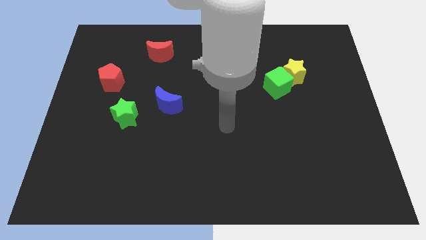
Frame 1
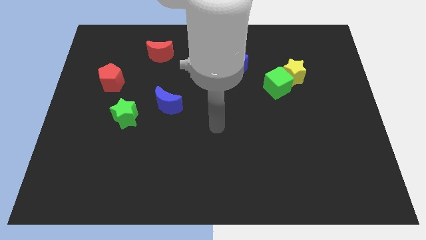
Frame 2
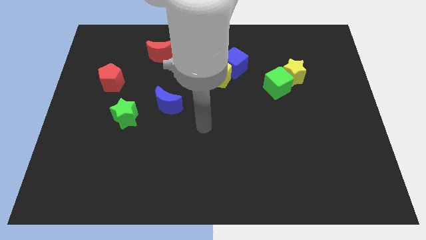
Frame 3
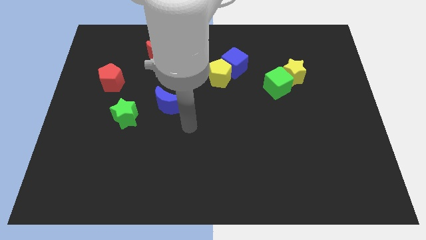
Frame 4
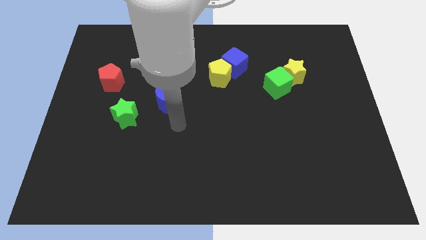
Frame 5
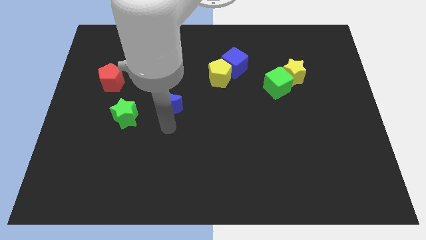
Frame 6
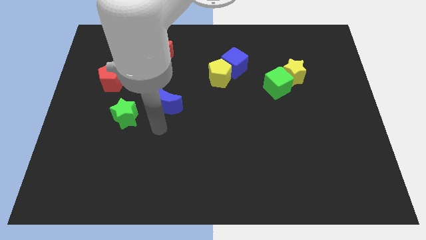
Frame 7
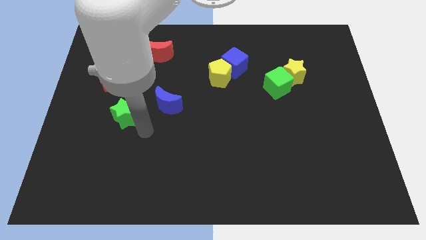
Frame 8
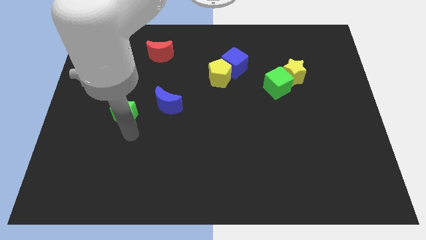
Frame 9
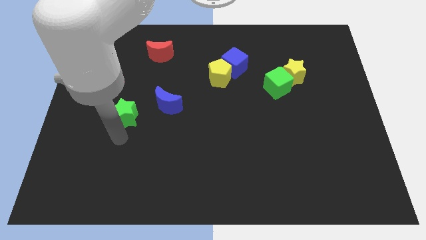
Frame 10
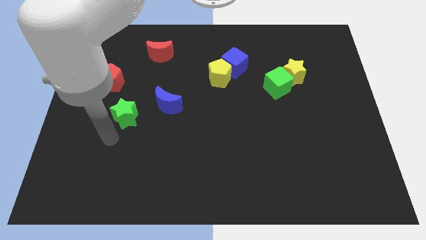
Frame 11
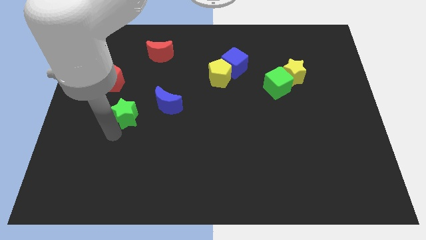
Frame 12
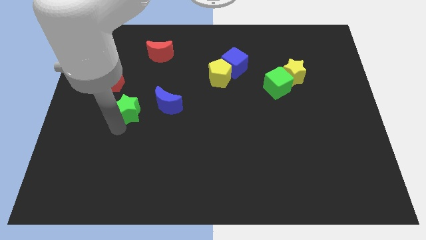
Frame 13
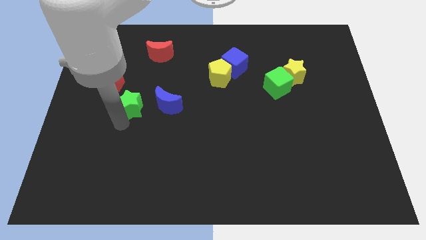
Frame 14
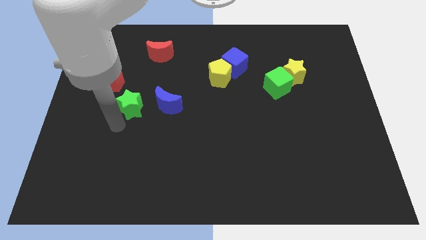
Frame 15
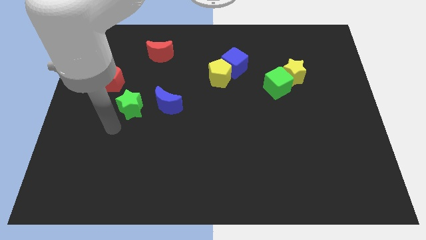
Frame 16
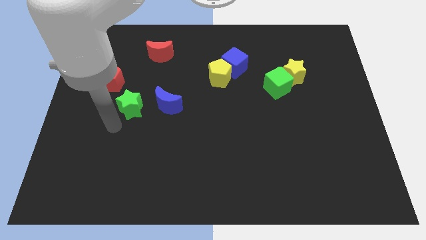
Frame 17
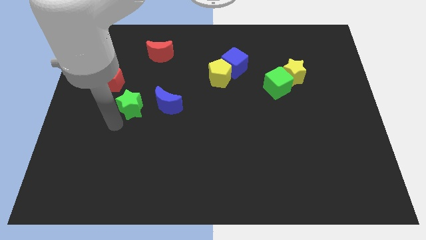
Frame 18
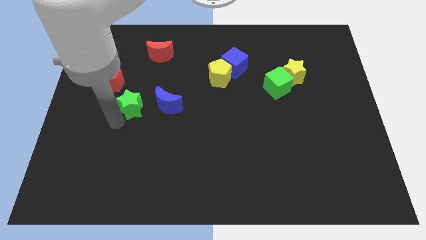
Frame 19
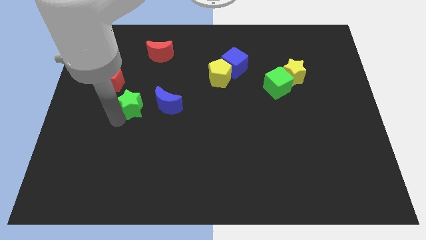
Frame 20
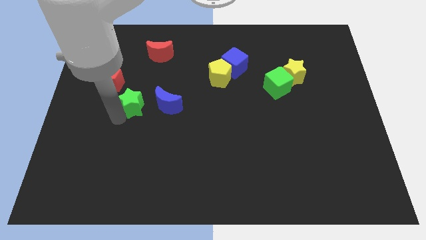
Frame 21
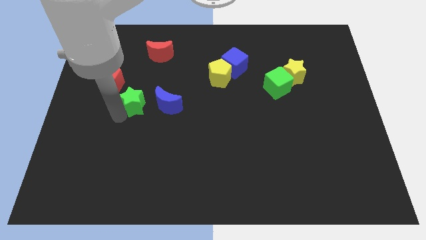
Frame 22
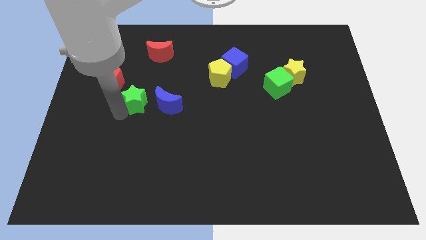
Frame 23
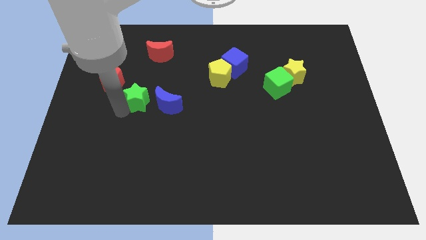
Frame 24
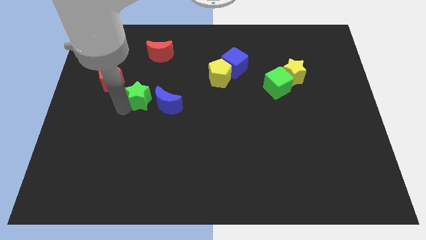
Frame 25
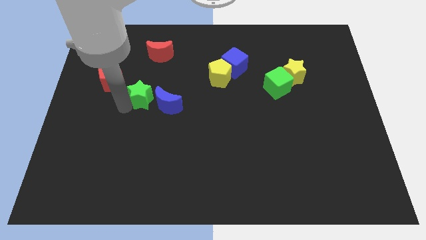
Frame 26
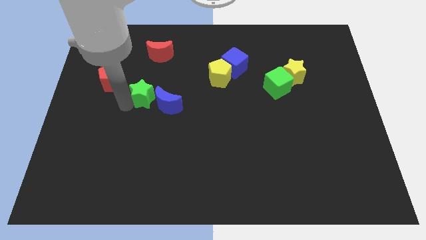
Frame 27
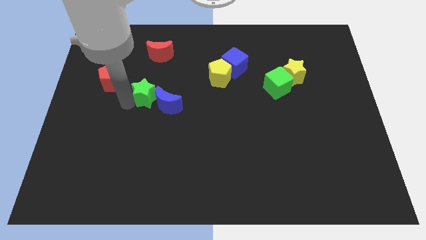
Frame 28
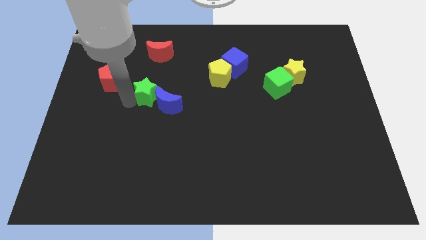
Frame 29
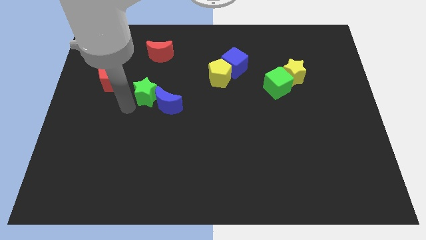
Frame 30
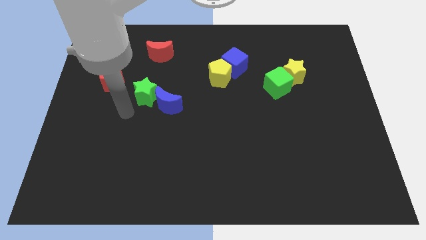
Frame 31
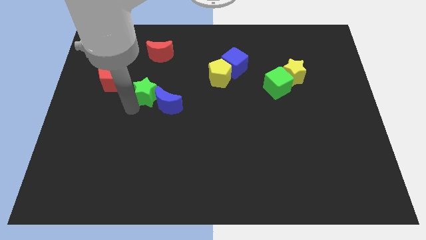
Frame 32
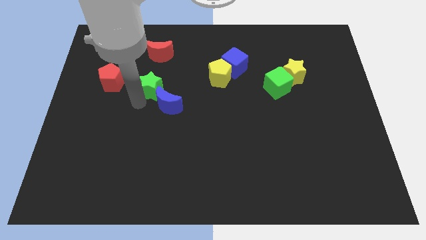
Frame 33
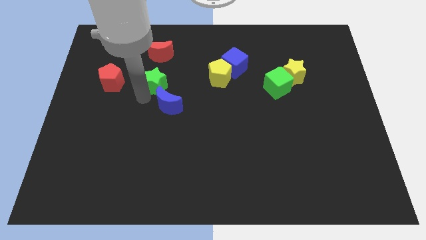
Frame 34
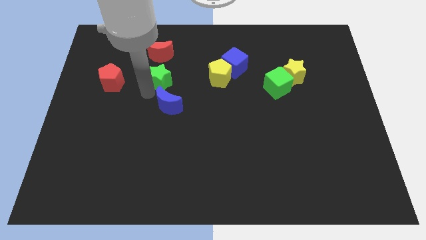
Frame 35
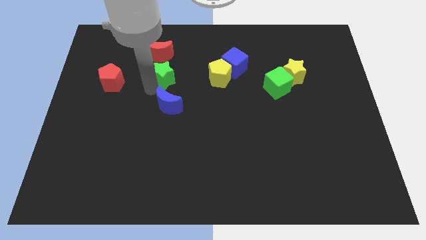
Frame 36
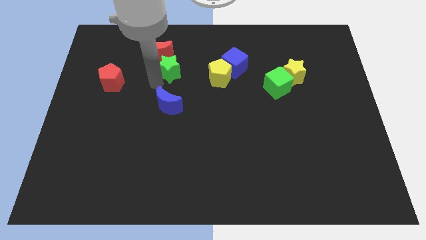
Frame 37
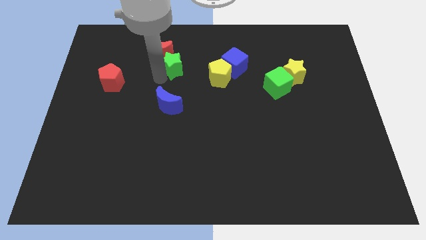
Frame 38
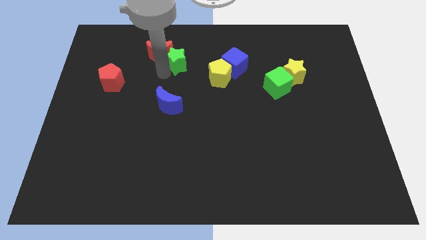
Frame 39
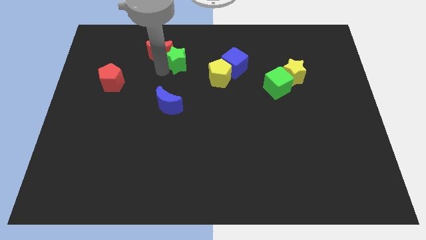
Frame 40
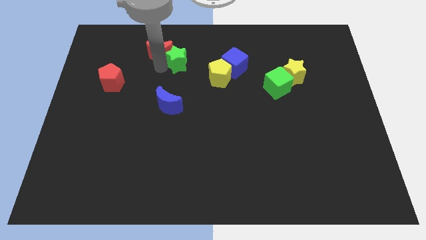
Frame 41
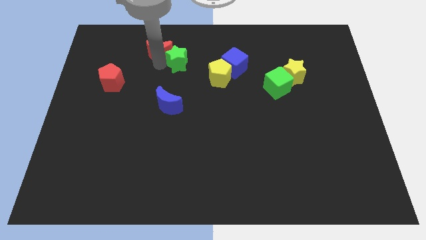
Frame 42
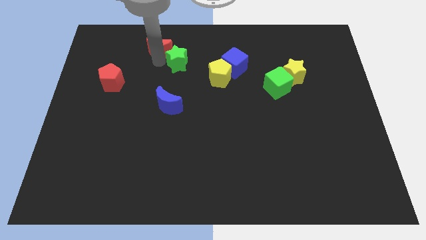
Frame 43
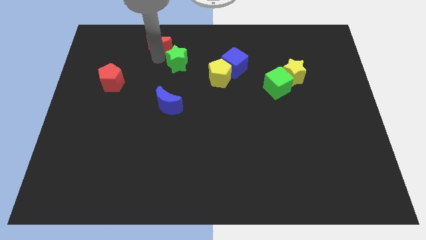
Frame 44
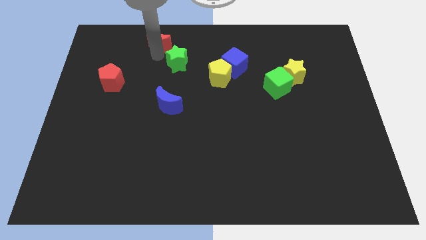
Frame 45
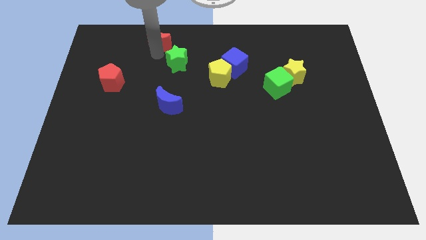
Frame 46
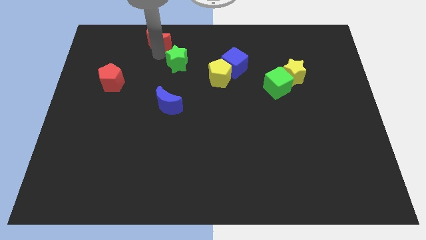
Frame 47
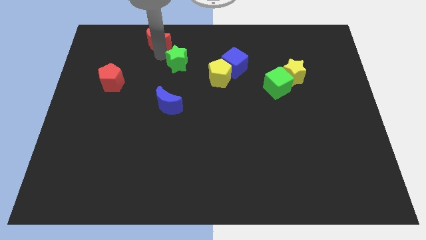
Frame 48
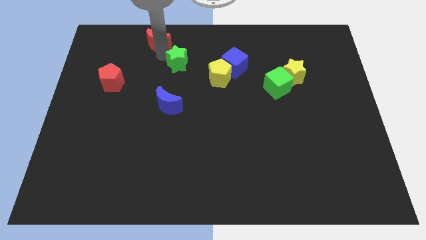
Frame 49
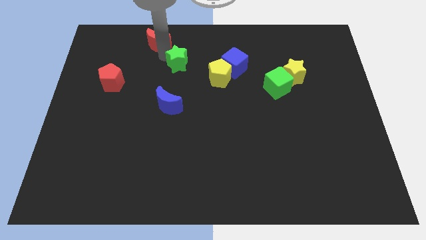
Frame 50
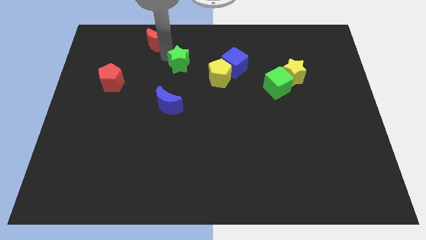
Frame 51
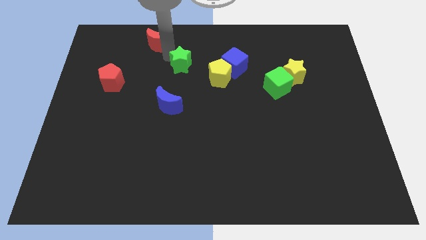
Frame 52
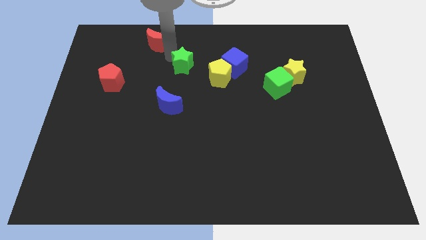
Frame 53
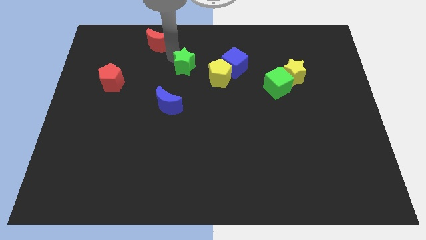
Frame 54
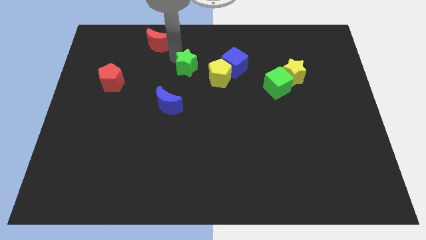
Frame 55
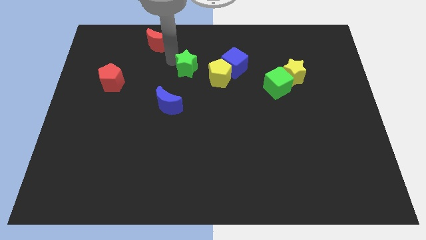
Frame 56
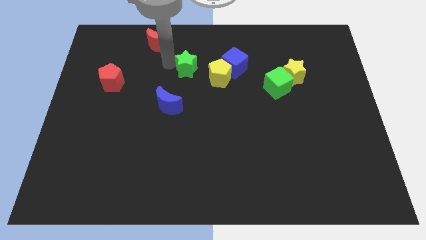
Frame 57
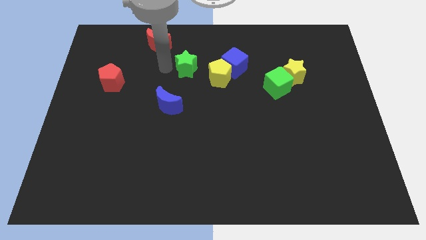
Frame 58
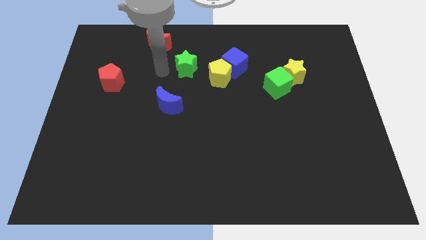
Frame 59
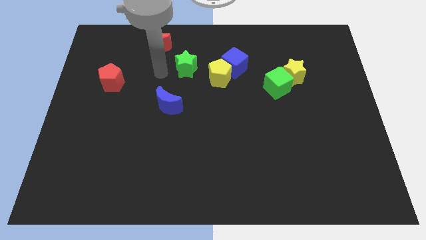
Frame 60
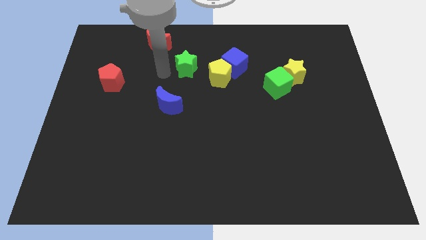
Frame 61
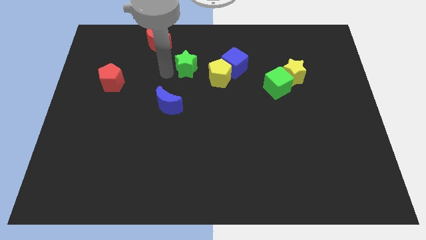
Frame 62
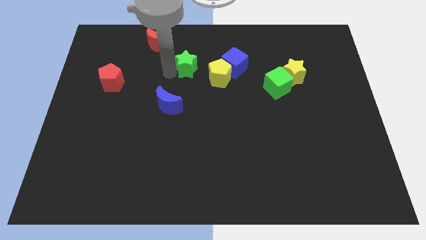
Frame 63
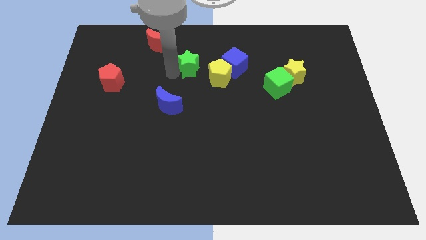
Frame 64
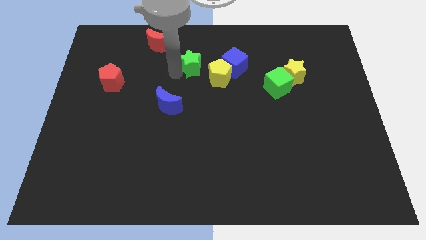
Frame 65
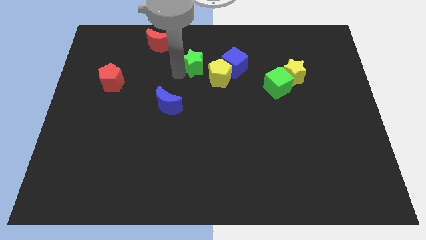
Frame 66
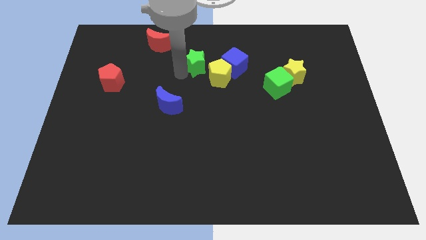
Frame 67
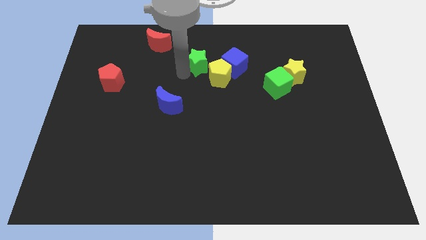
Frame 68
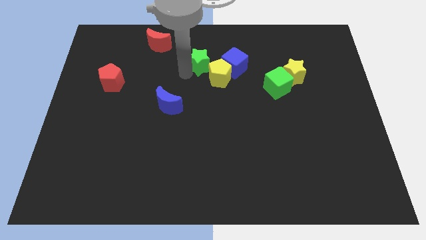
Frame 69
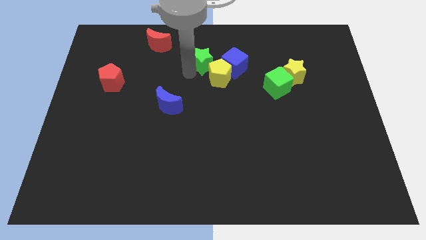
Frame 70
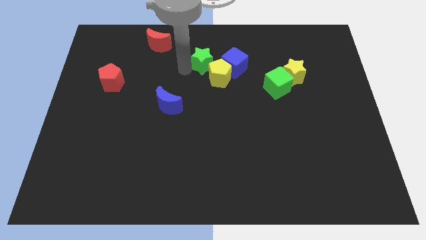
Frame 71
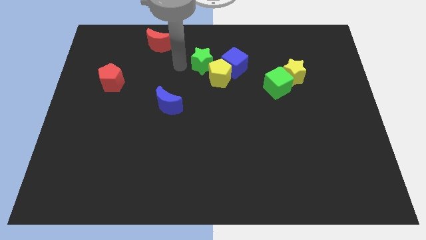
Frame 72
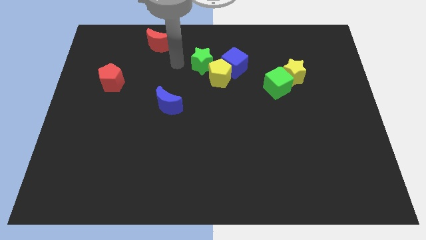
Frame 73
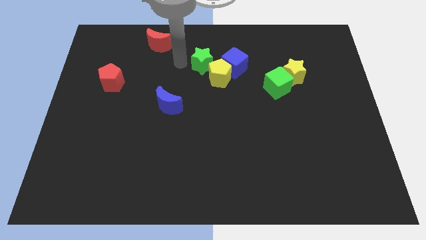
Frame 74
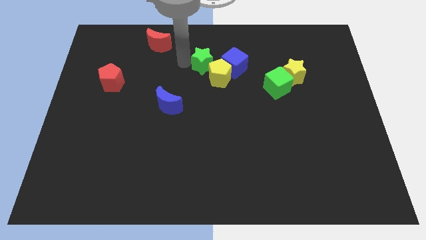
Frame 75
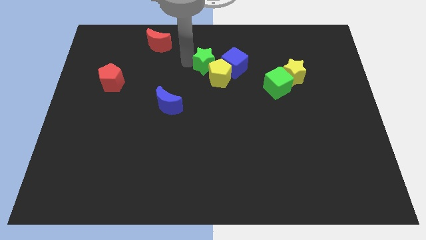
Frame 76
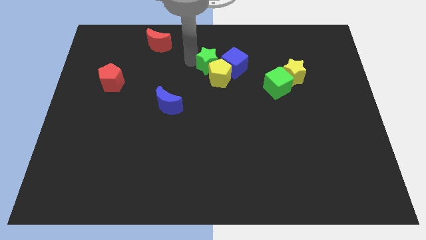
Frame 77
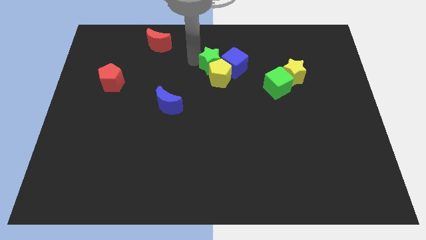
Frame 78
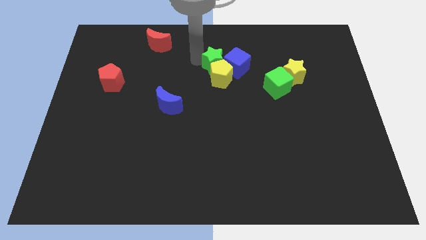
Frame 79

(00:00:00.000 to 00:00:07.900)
move the green star towards the blue cube

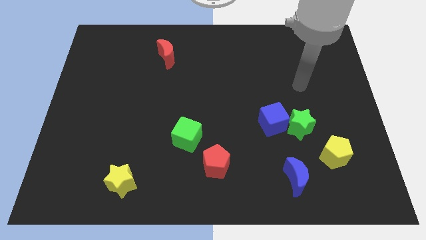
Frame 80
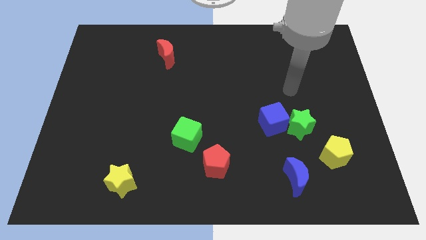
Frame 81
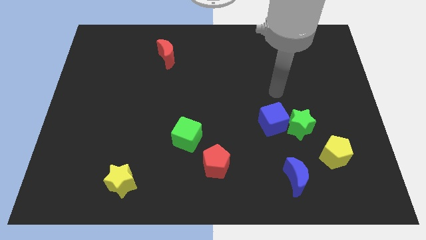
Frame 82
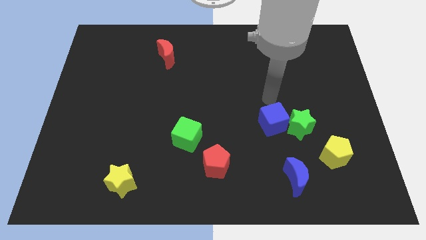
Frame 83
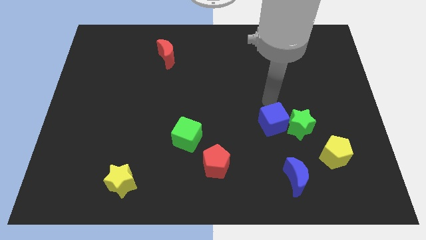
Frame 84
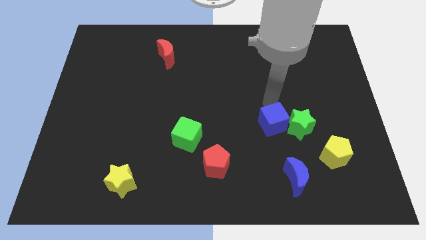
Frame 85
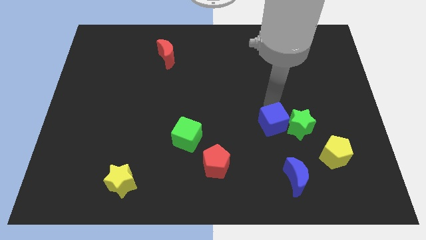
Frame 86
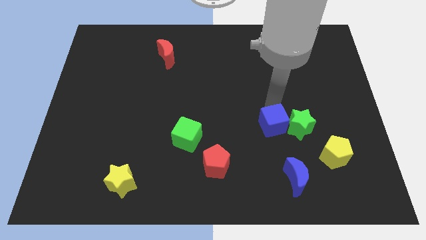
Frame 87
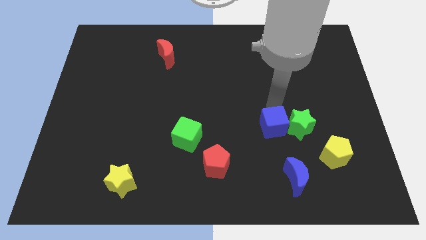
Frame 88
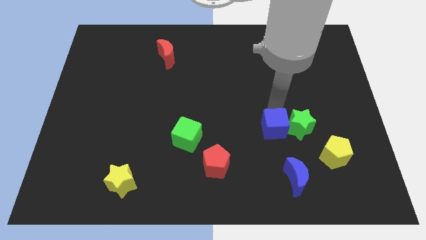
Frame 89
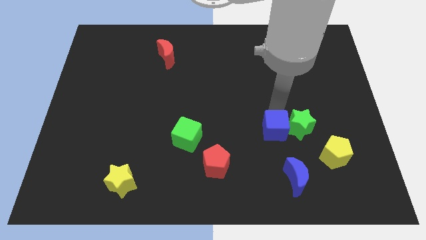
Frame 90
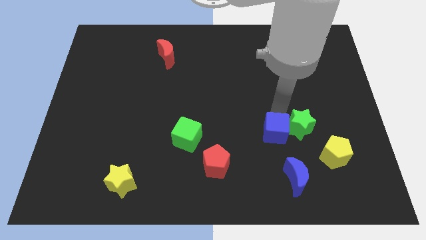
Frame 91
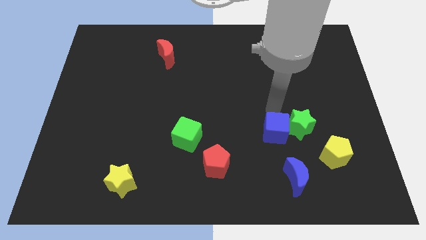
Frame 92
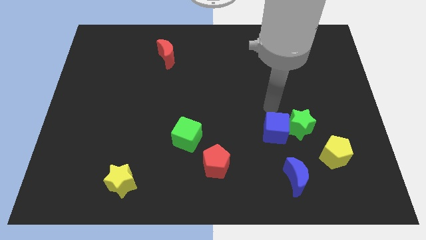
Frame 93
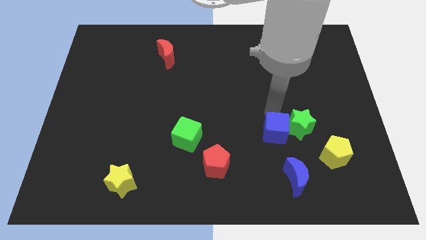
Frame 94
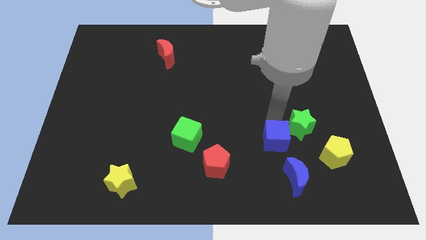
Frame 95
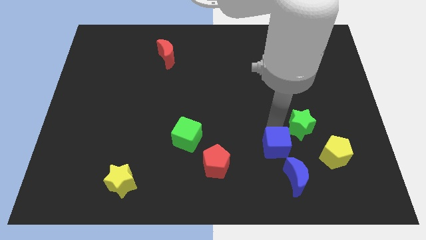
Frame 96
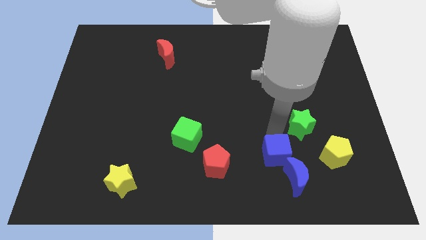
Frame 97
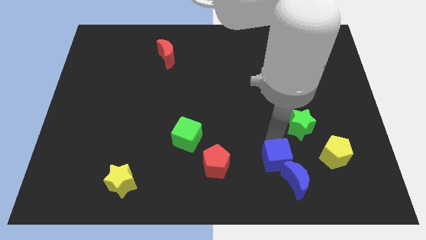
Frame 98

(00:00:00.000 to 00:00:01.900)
slide the blue cube to the blue moon
